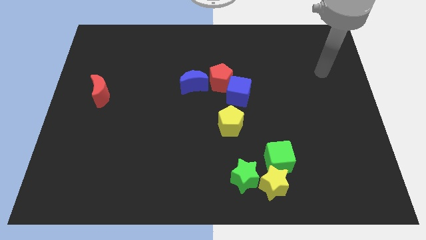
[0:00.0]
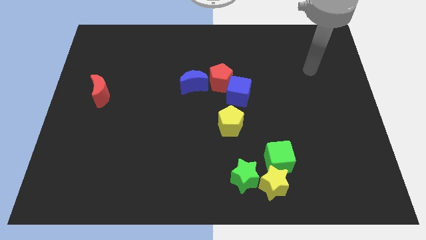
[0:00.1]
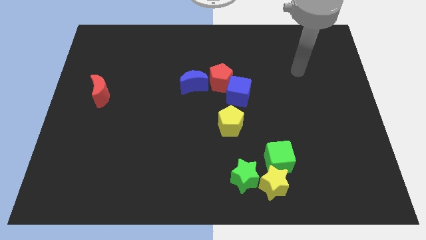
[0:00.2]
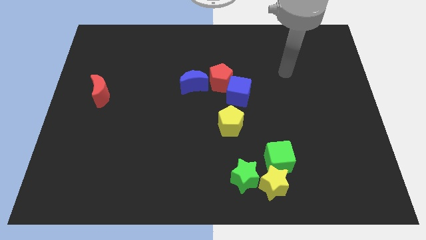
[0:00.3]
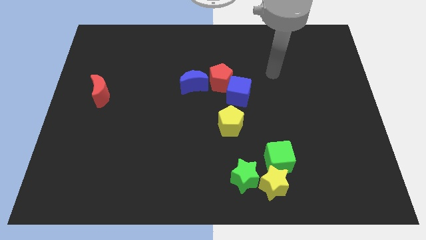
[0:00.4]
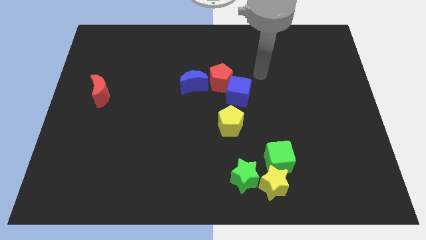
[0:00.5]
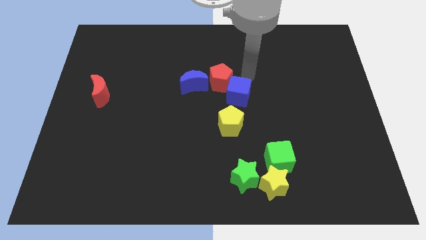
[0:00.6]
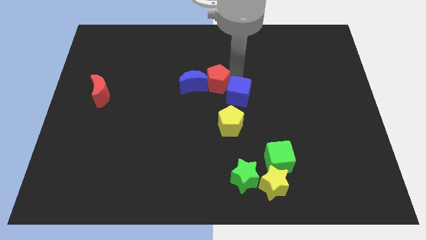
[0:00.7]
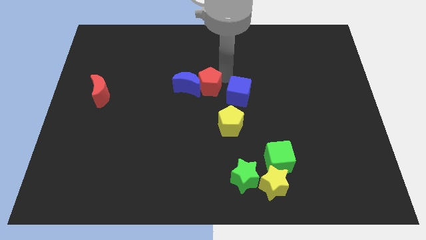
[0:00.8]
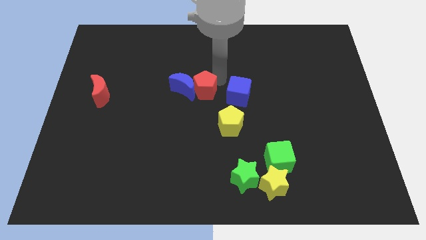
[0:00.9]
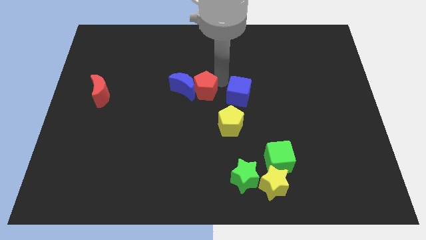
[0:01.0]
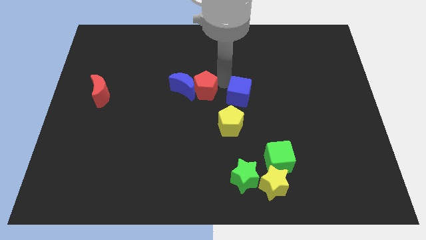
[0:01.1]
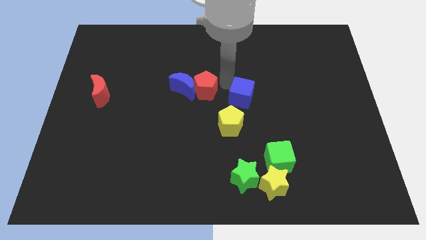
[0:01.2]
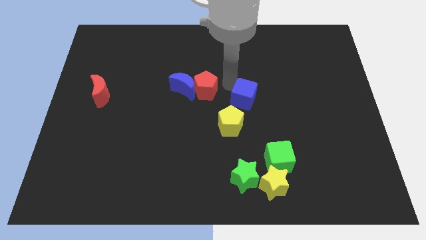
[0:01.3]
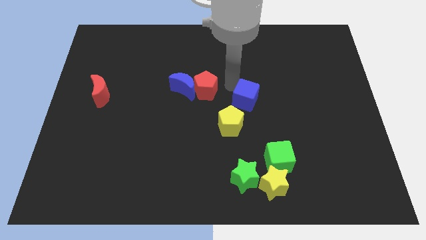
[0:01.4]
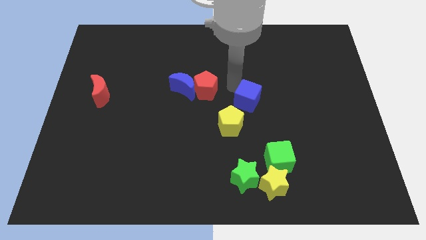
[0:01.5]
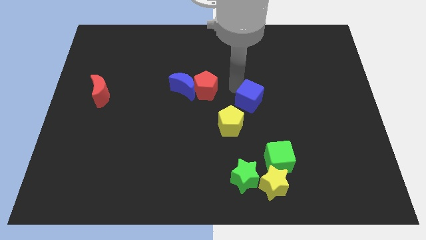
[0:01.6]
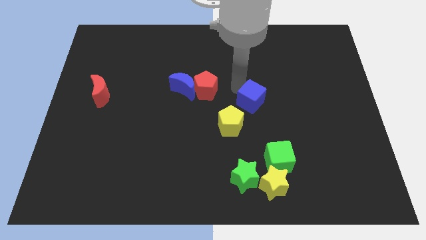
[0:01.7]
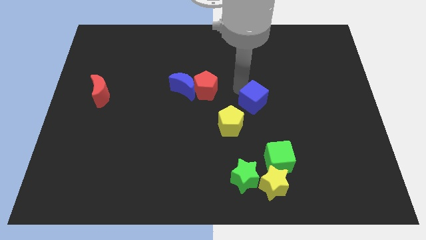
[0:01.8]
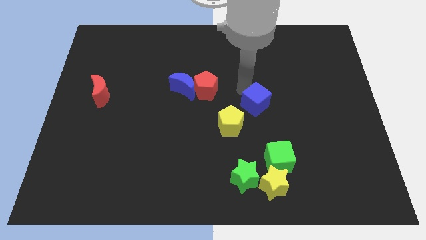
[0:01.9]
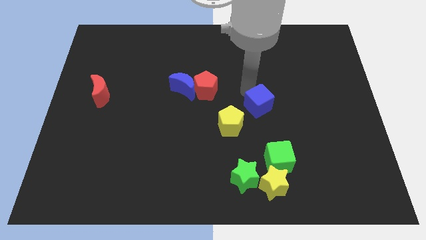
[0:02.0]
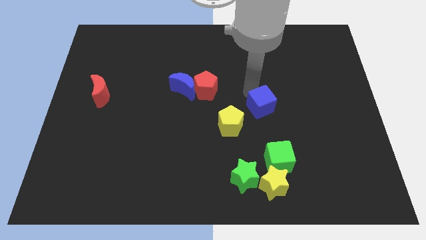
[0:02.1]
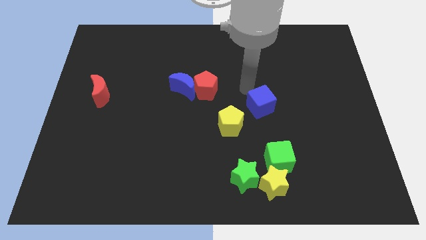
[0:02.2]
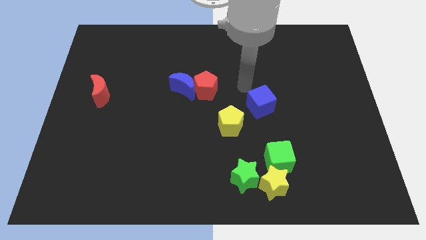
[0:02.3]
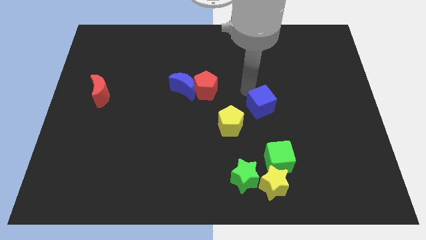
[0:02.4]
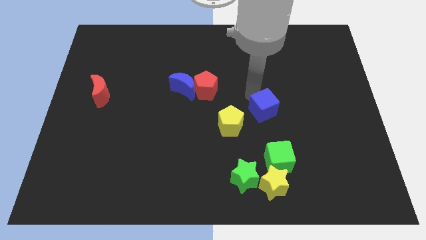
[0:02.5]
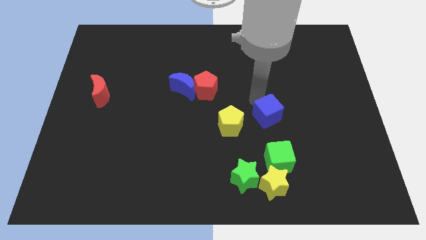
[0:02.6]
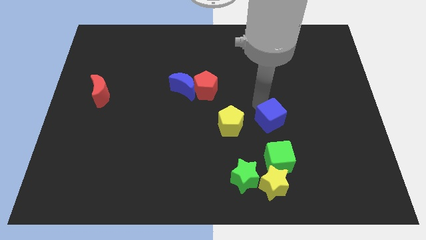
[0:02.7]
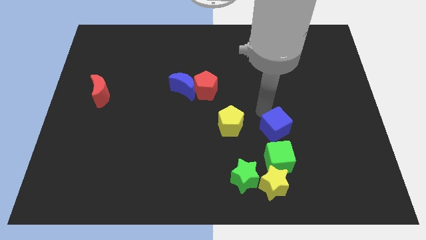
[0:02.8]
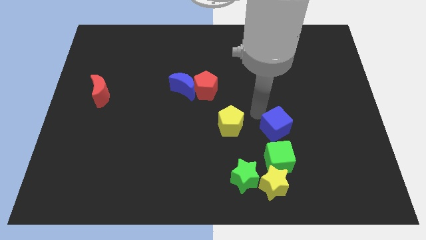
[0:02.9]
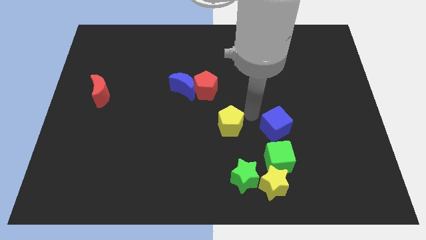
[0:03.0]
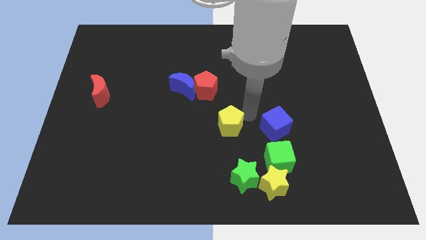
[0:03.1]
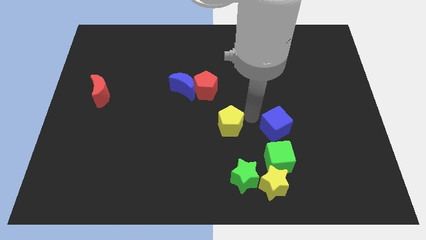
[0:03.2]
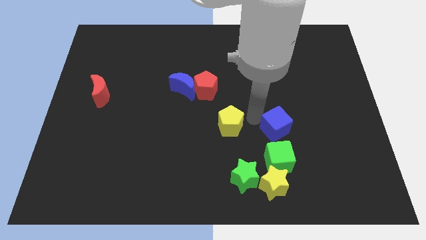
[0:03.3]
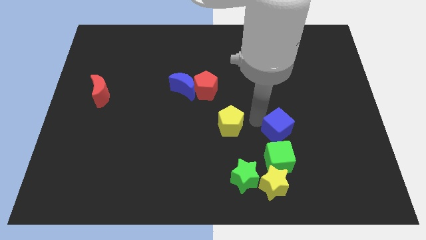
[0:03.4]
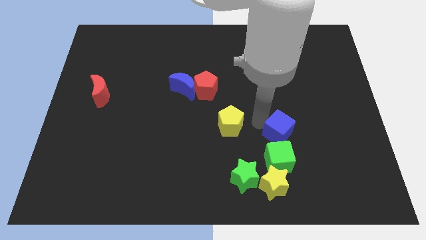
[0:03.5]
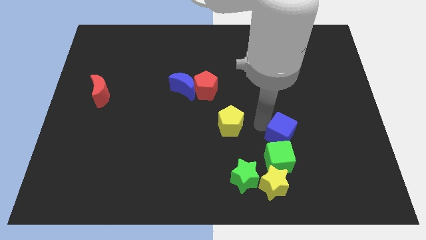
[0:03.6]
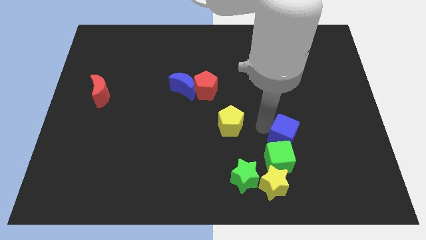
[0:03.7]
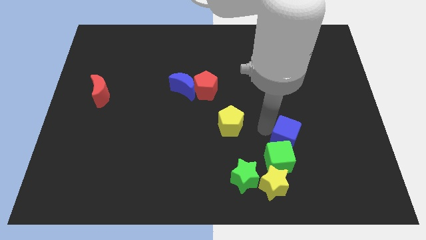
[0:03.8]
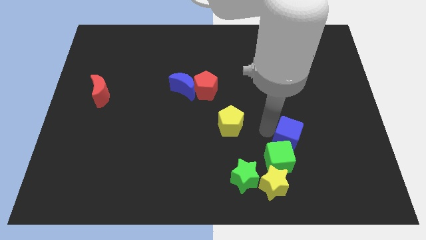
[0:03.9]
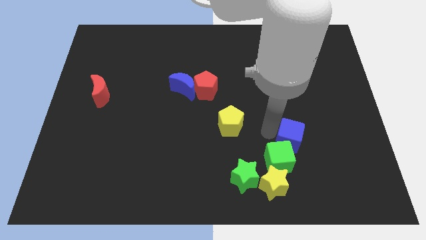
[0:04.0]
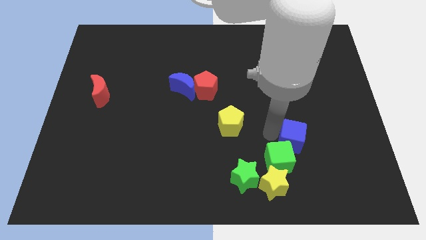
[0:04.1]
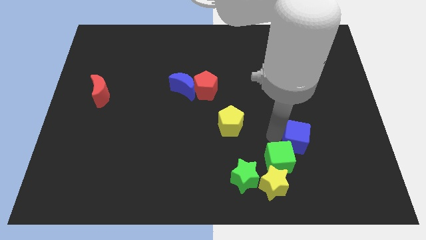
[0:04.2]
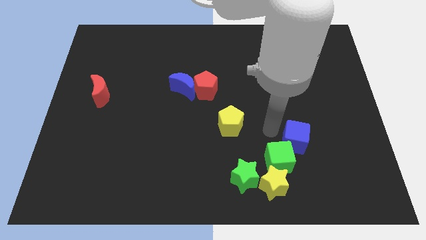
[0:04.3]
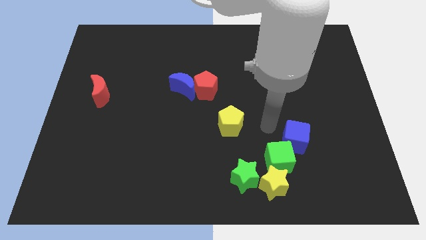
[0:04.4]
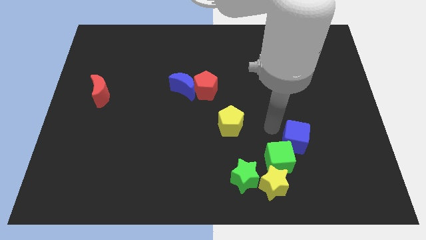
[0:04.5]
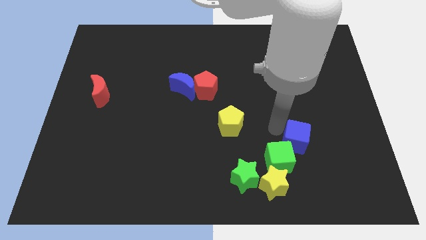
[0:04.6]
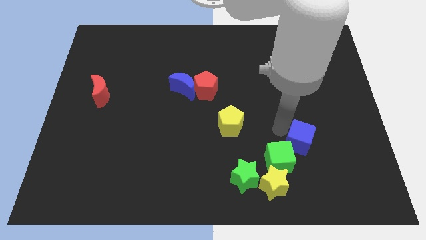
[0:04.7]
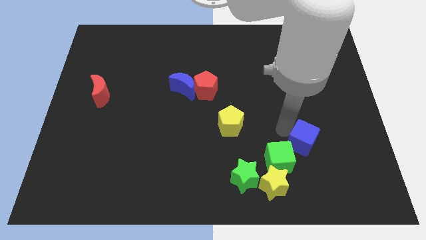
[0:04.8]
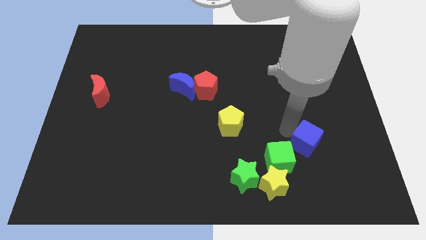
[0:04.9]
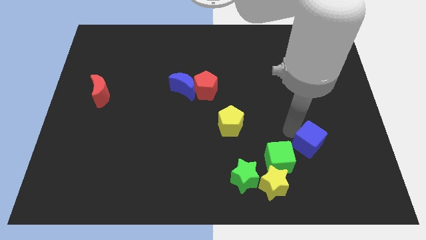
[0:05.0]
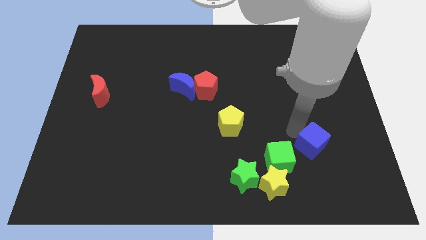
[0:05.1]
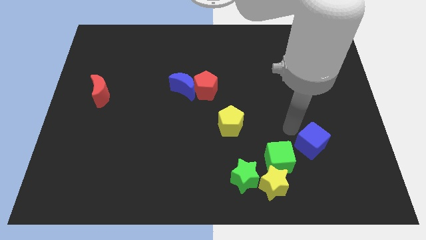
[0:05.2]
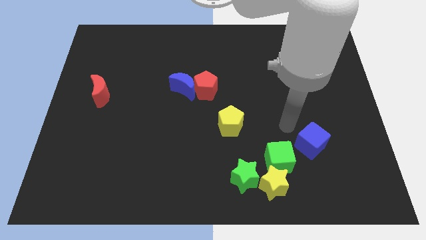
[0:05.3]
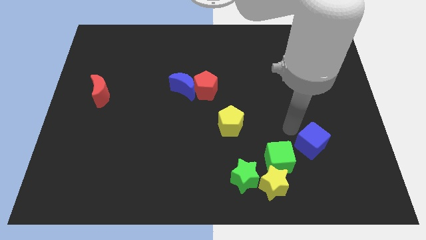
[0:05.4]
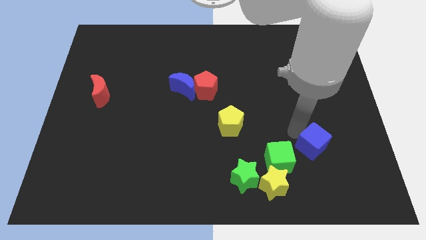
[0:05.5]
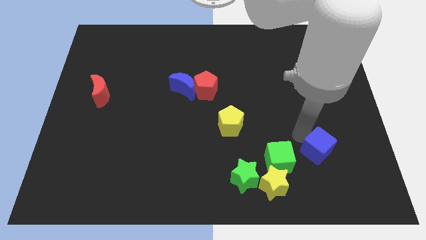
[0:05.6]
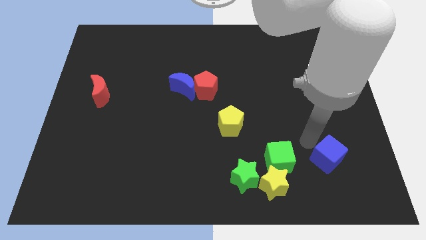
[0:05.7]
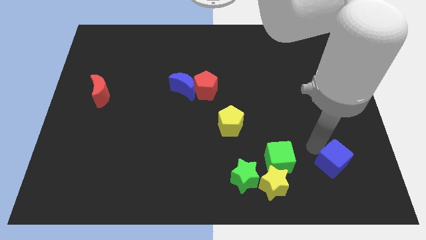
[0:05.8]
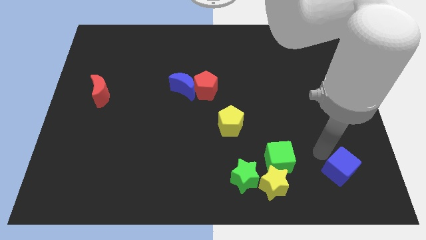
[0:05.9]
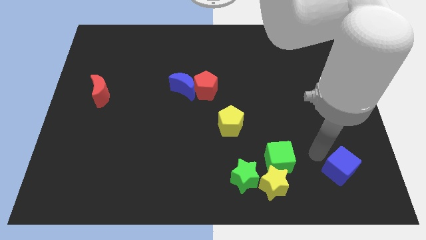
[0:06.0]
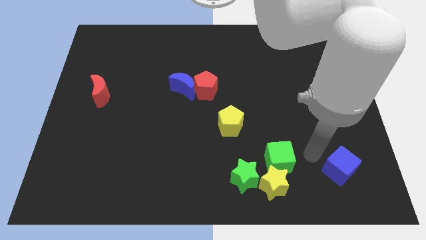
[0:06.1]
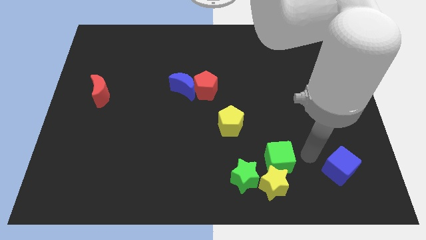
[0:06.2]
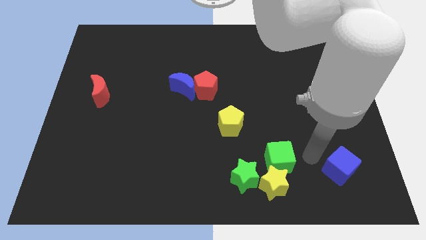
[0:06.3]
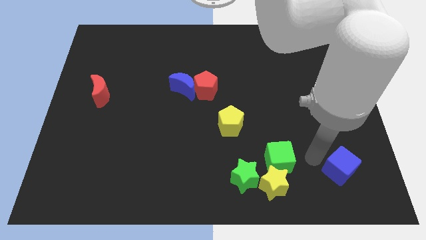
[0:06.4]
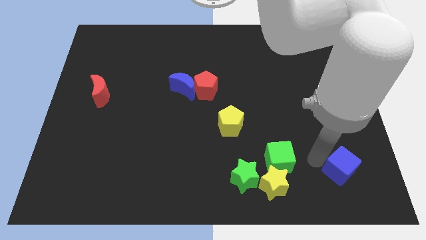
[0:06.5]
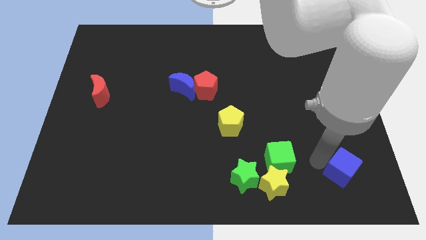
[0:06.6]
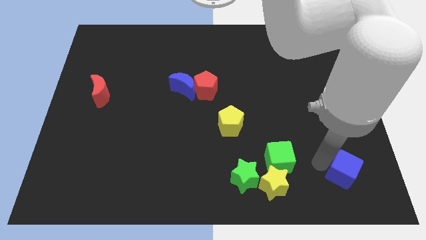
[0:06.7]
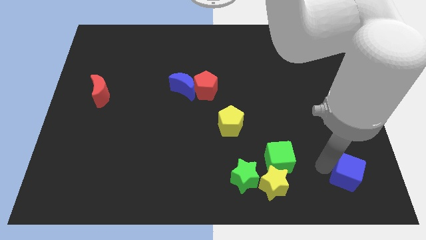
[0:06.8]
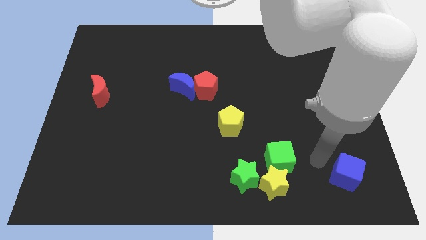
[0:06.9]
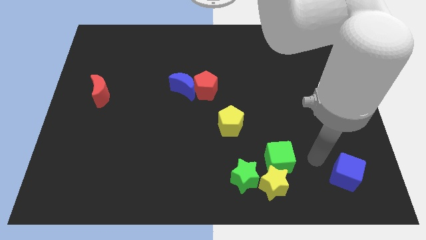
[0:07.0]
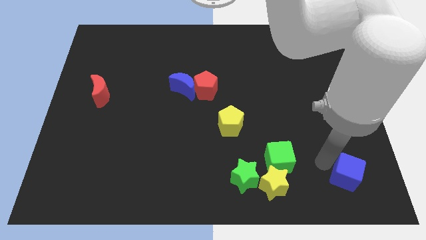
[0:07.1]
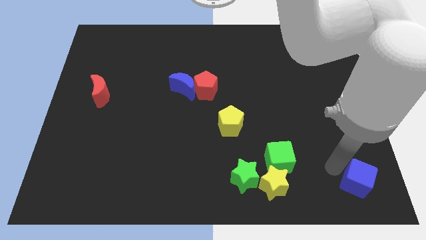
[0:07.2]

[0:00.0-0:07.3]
put the blue cube to the bottom right

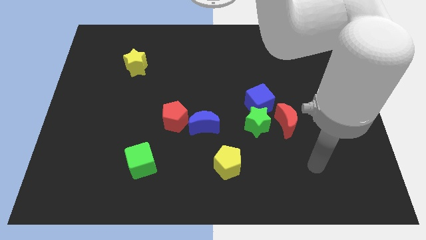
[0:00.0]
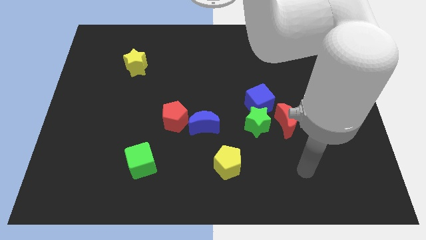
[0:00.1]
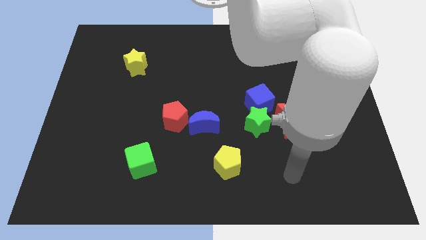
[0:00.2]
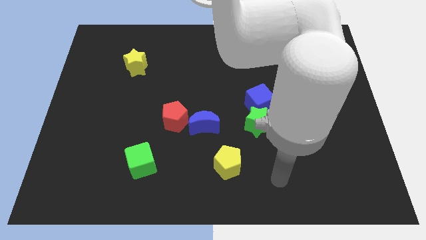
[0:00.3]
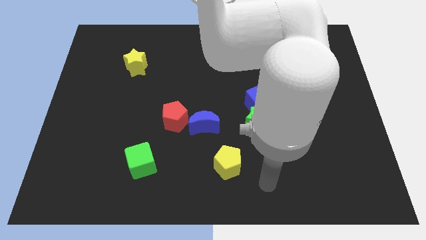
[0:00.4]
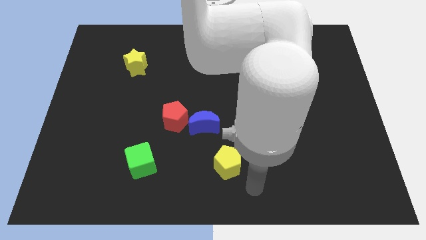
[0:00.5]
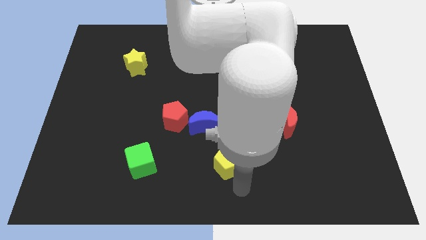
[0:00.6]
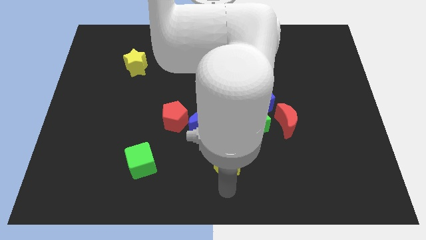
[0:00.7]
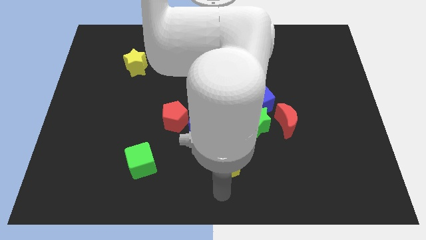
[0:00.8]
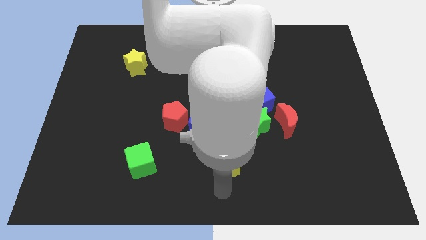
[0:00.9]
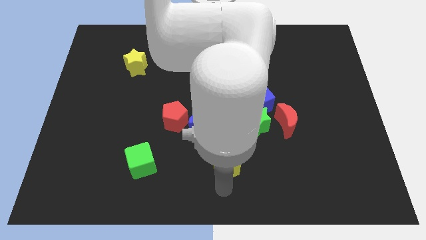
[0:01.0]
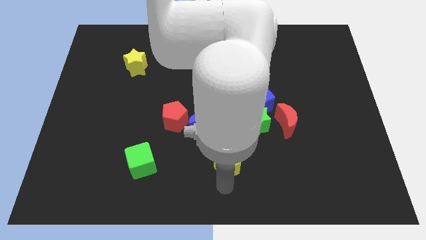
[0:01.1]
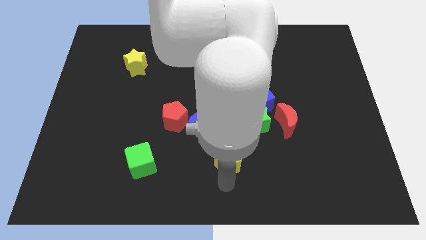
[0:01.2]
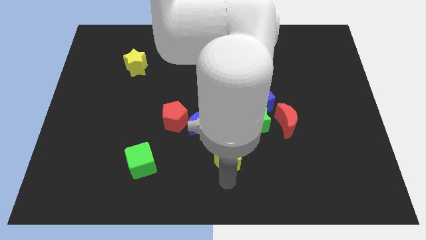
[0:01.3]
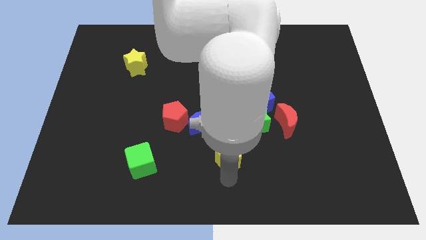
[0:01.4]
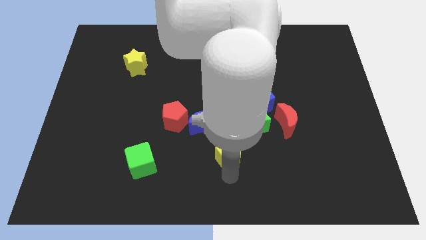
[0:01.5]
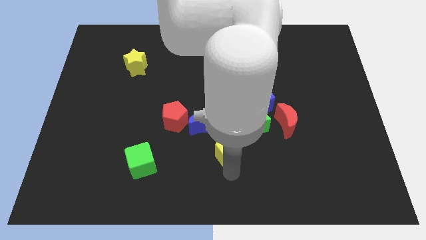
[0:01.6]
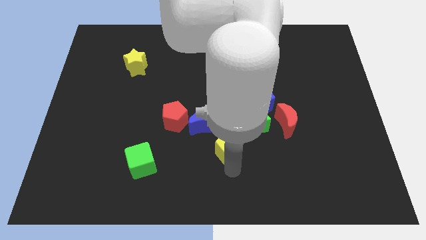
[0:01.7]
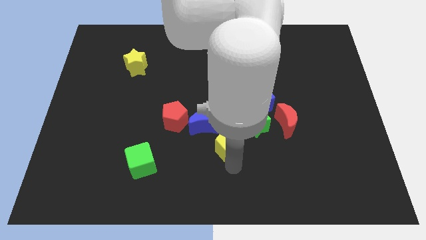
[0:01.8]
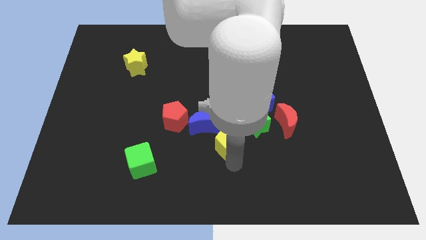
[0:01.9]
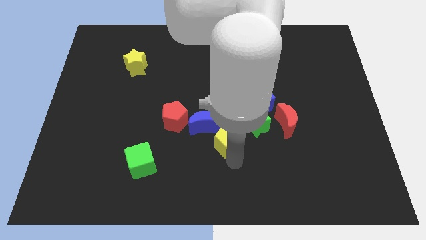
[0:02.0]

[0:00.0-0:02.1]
push the yellow pentagon to the middle
